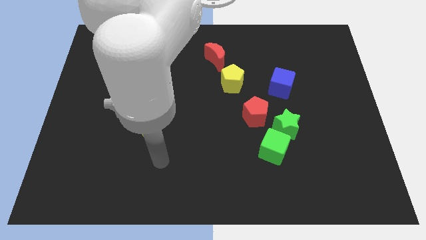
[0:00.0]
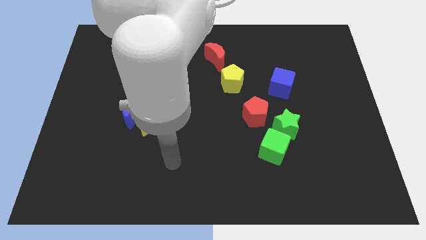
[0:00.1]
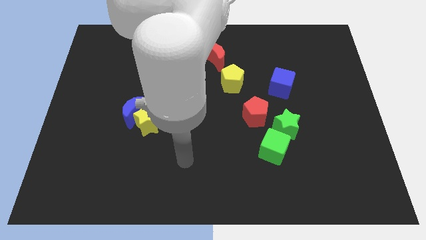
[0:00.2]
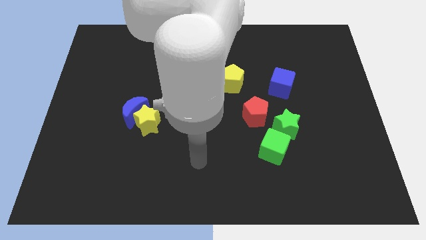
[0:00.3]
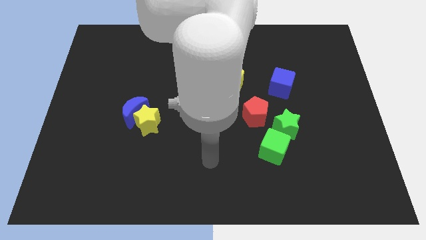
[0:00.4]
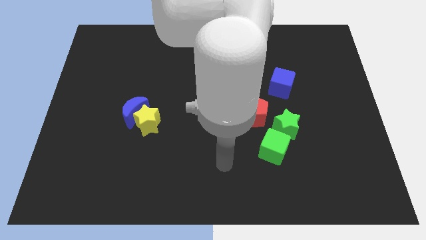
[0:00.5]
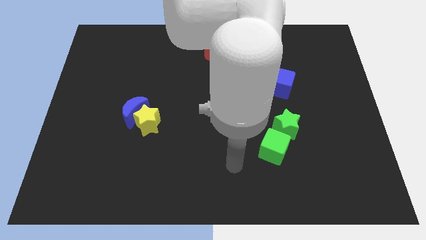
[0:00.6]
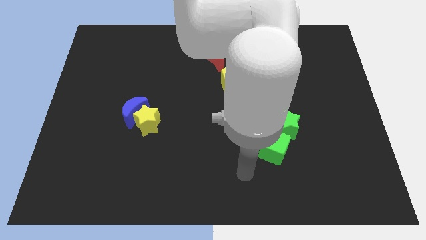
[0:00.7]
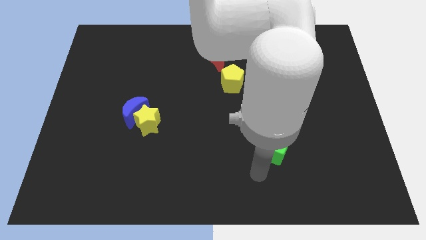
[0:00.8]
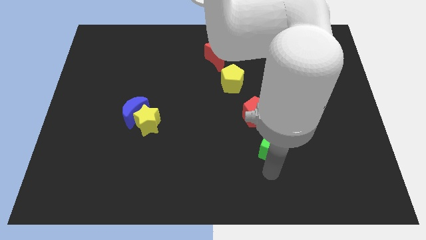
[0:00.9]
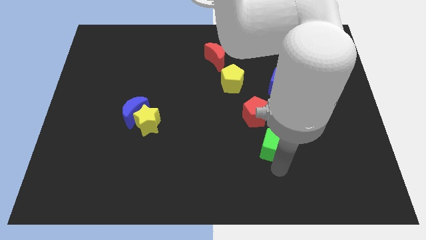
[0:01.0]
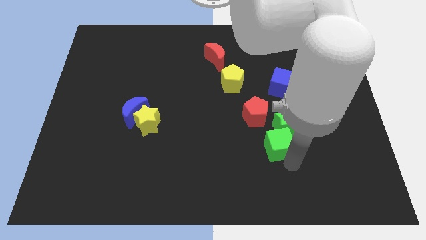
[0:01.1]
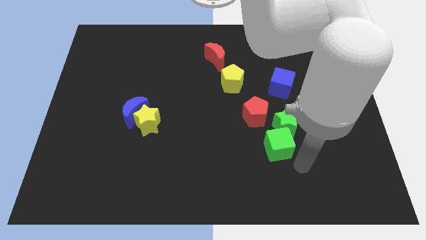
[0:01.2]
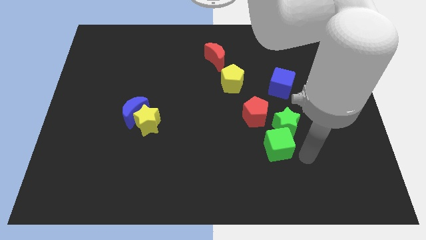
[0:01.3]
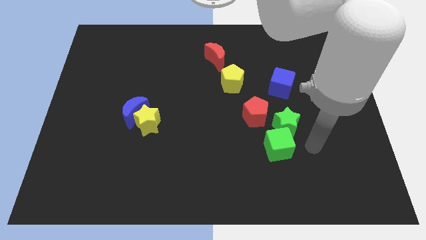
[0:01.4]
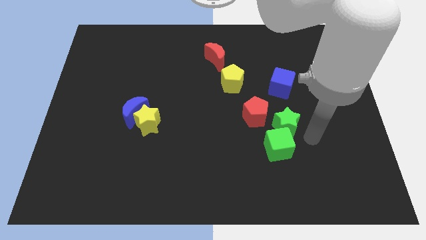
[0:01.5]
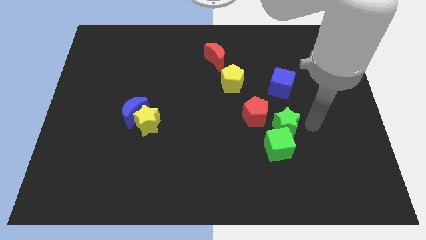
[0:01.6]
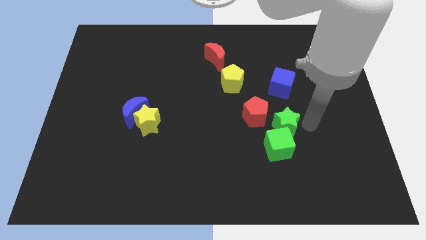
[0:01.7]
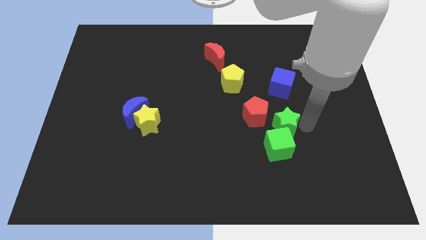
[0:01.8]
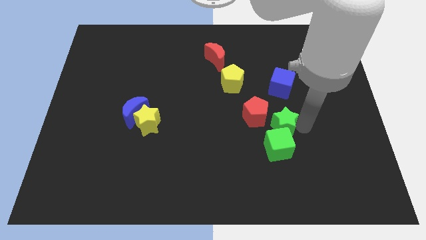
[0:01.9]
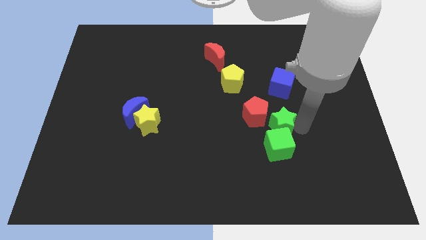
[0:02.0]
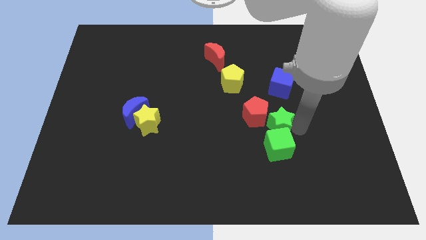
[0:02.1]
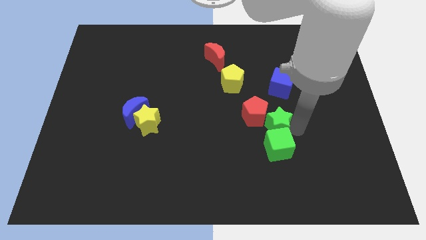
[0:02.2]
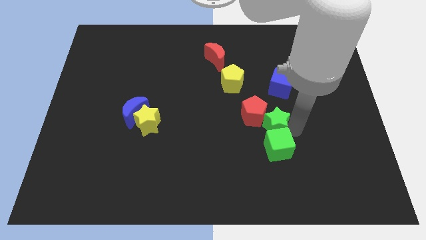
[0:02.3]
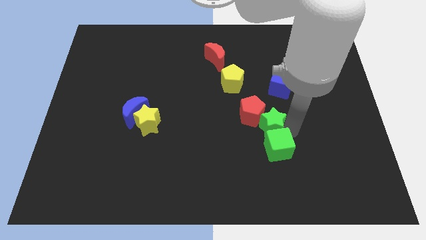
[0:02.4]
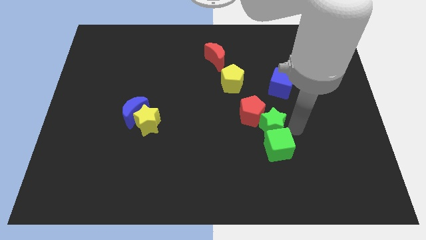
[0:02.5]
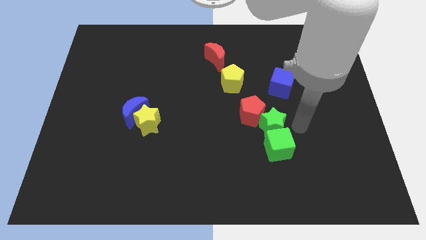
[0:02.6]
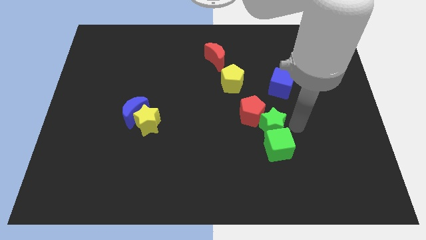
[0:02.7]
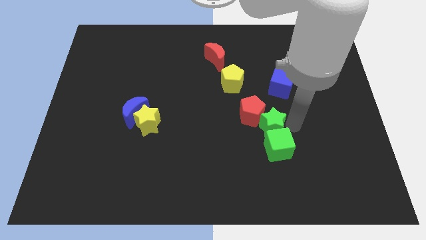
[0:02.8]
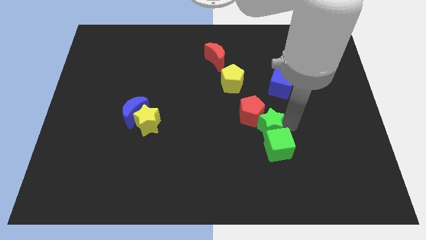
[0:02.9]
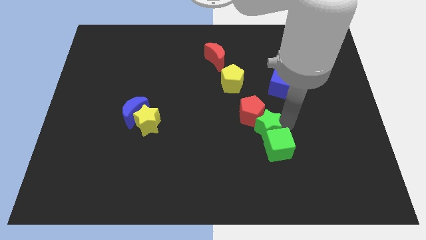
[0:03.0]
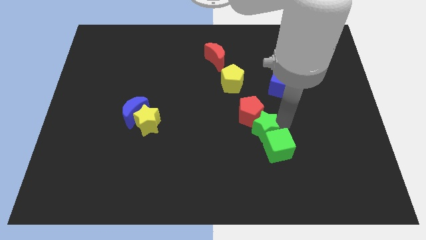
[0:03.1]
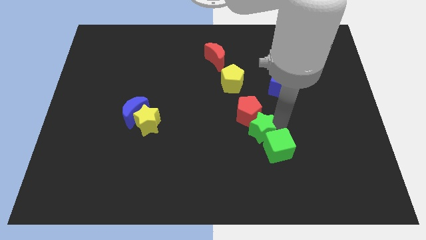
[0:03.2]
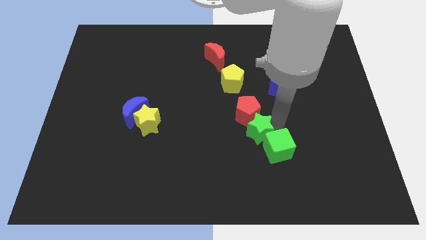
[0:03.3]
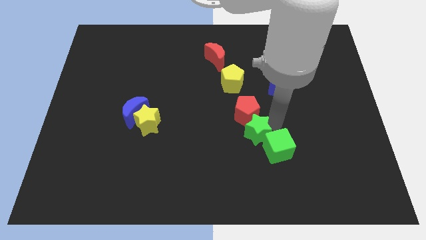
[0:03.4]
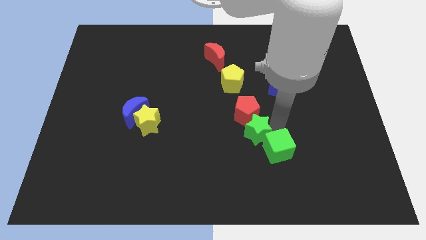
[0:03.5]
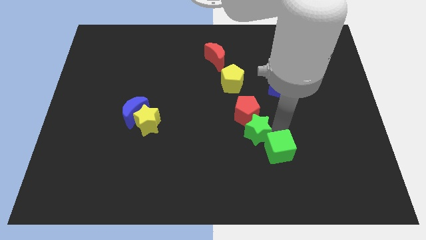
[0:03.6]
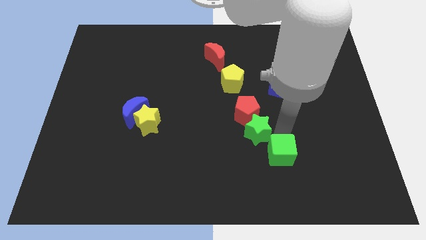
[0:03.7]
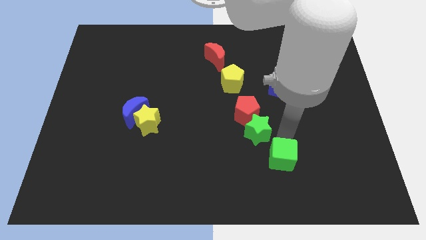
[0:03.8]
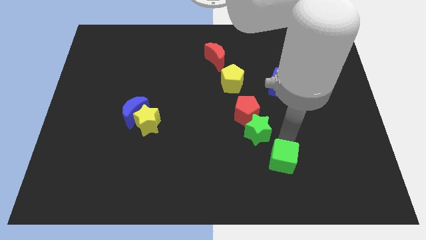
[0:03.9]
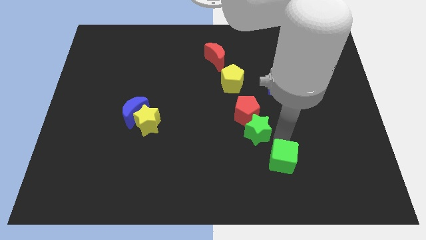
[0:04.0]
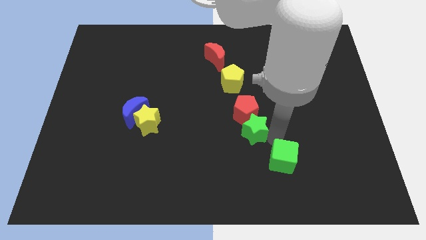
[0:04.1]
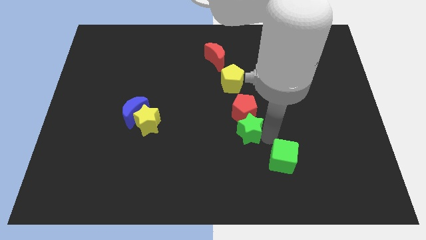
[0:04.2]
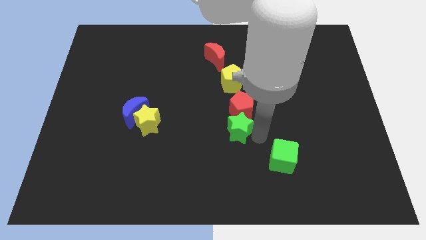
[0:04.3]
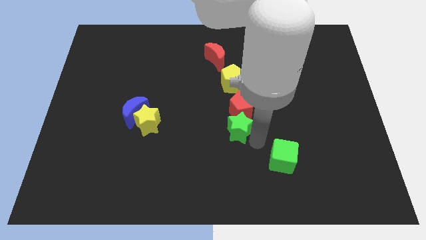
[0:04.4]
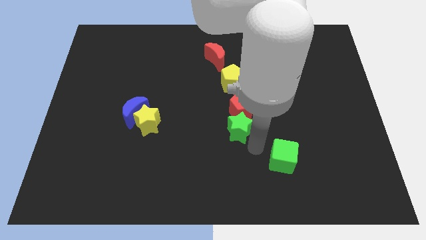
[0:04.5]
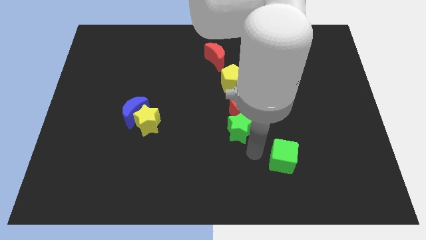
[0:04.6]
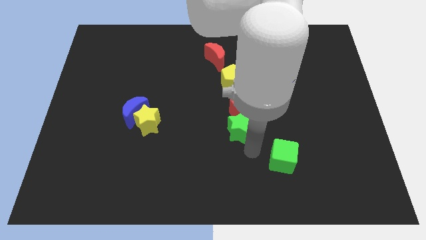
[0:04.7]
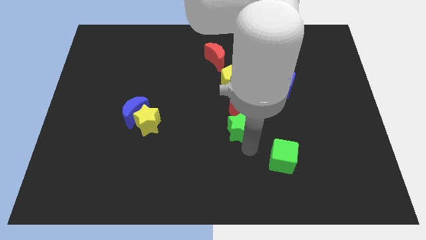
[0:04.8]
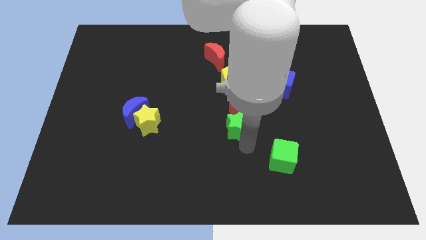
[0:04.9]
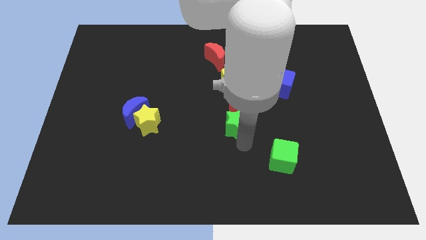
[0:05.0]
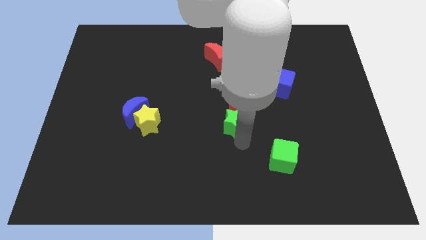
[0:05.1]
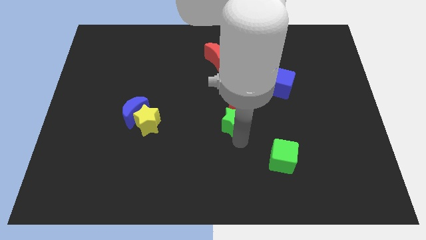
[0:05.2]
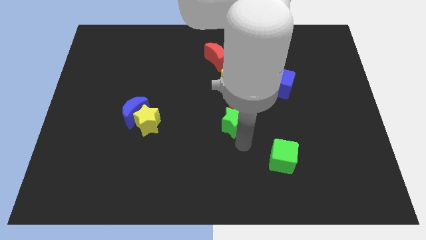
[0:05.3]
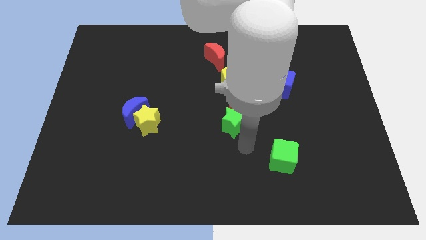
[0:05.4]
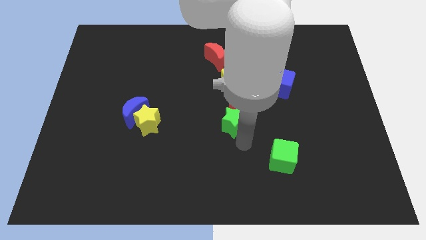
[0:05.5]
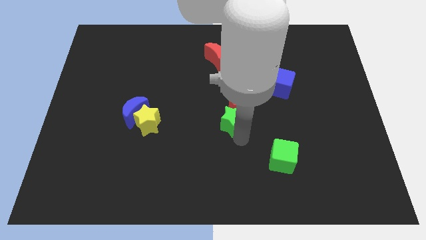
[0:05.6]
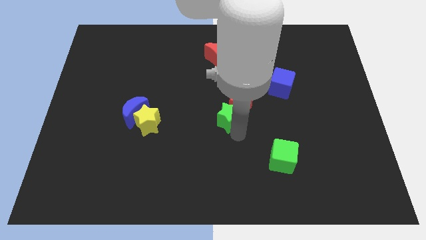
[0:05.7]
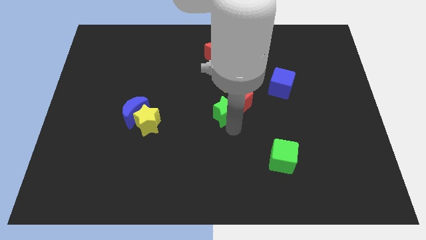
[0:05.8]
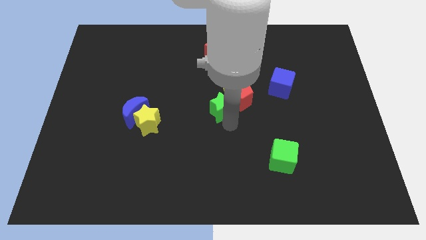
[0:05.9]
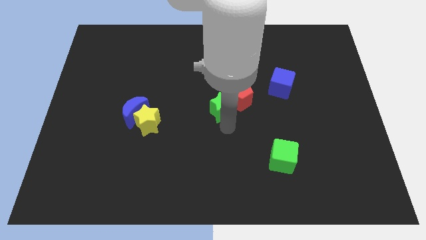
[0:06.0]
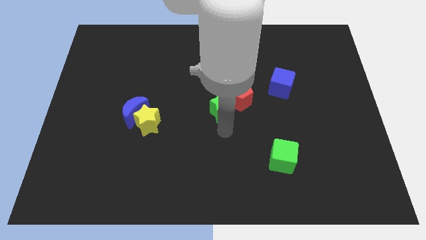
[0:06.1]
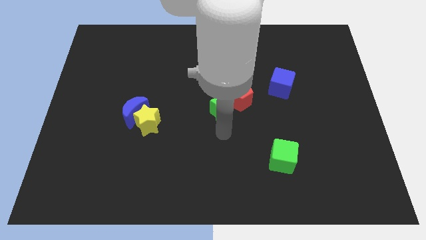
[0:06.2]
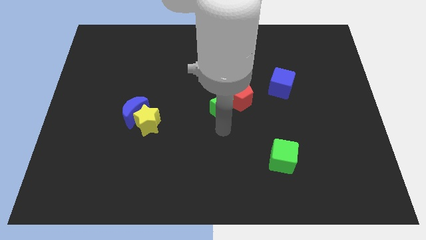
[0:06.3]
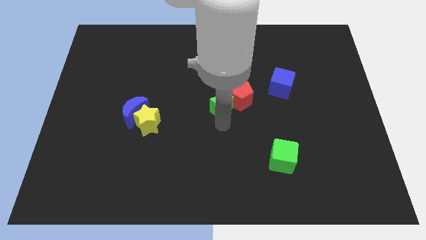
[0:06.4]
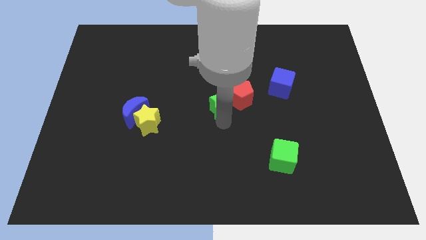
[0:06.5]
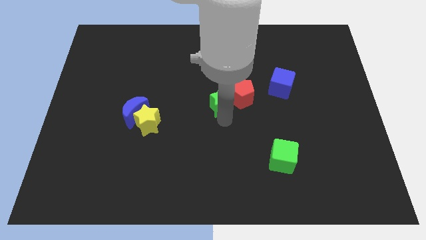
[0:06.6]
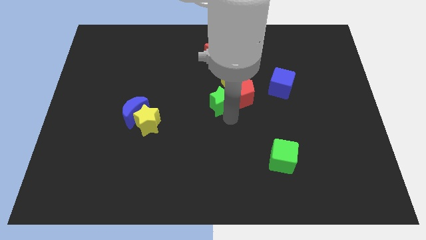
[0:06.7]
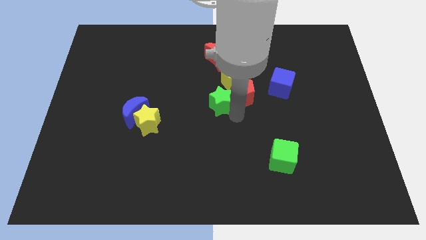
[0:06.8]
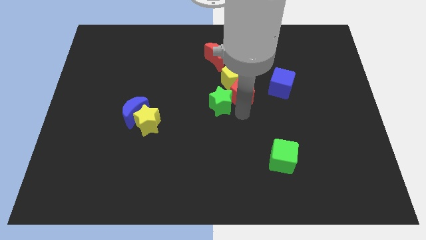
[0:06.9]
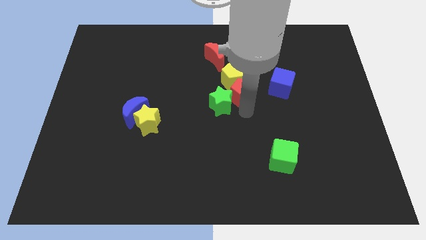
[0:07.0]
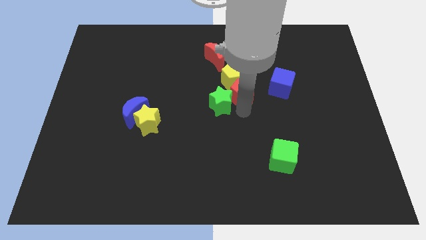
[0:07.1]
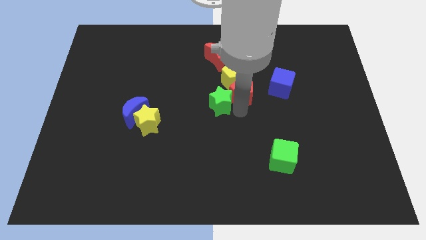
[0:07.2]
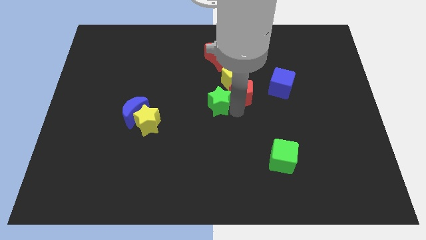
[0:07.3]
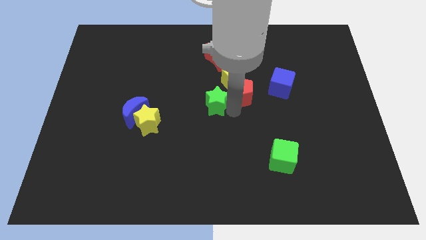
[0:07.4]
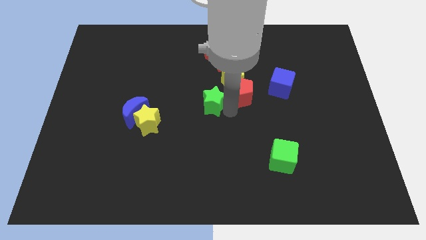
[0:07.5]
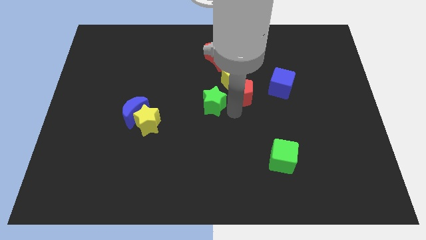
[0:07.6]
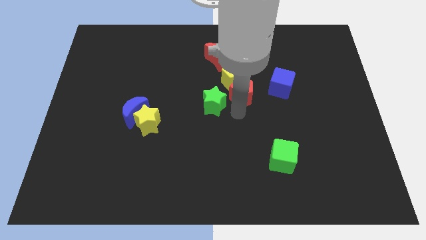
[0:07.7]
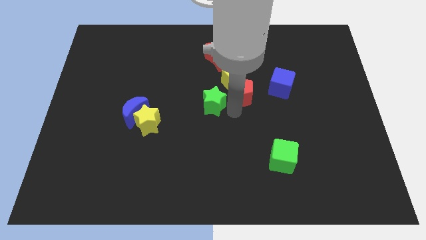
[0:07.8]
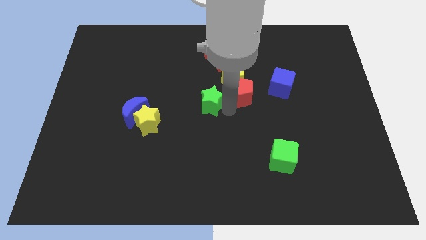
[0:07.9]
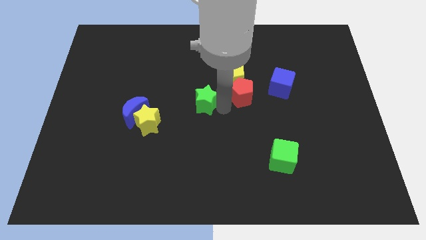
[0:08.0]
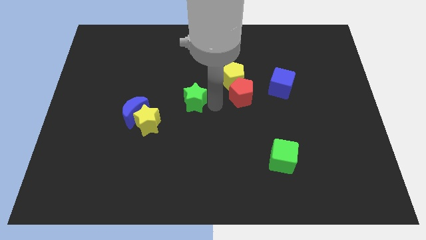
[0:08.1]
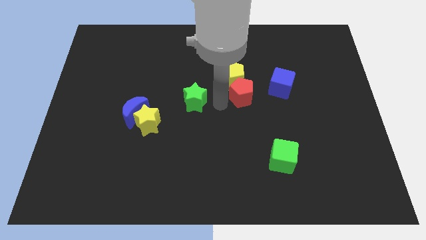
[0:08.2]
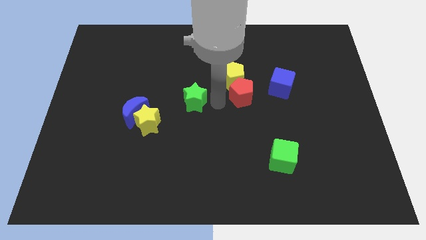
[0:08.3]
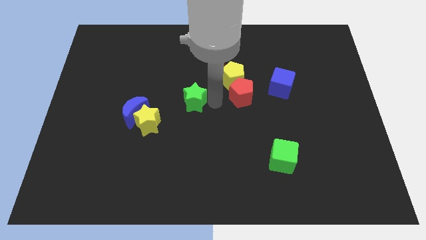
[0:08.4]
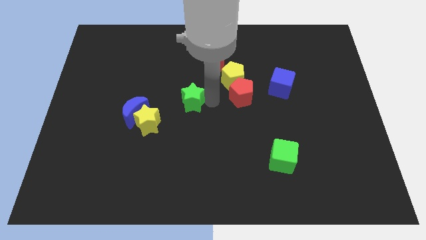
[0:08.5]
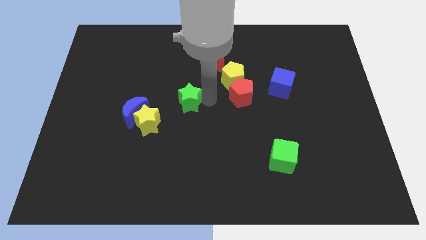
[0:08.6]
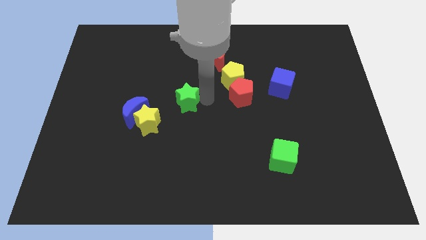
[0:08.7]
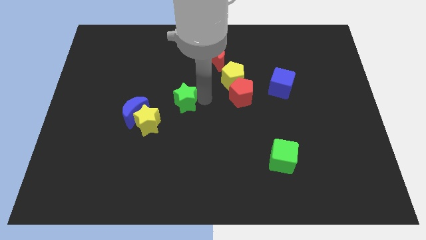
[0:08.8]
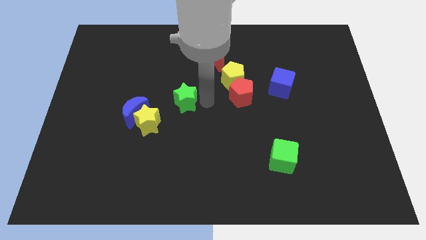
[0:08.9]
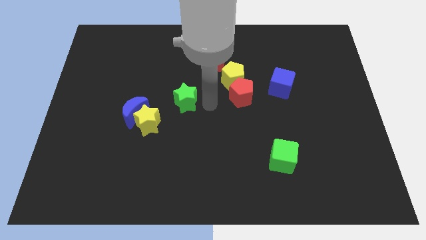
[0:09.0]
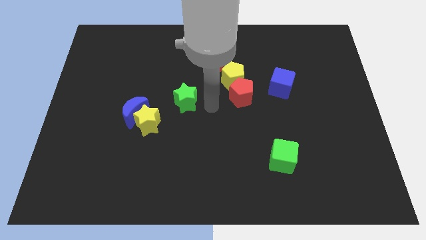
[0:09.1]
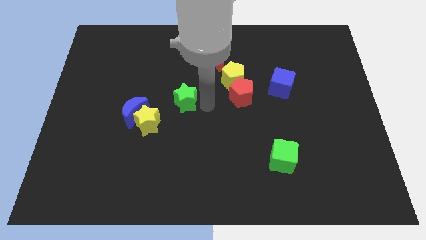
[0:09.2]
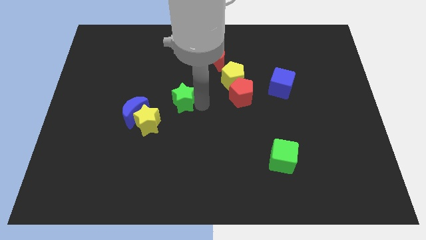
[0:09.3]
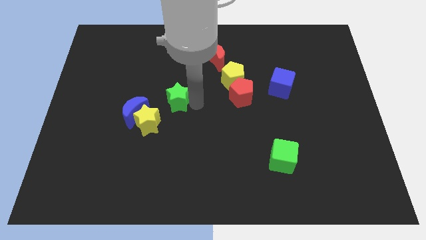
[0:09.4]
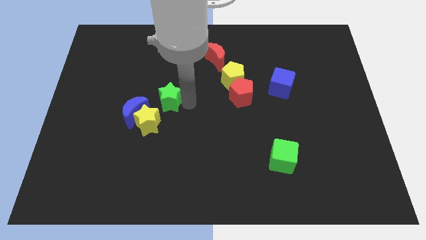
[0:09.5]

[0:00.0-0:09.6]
put the green star to the top of the yellow star
